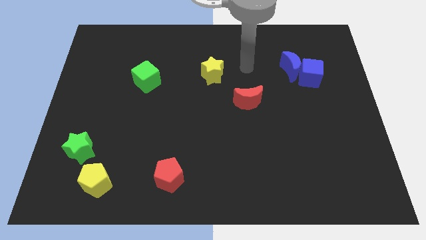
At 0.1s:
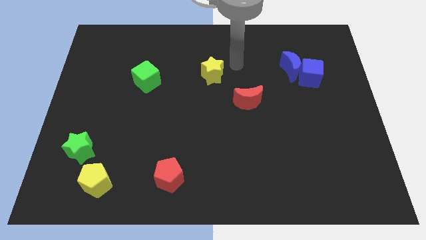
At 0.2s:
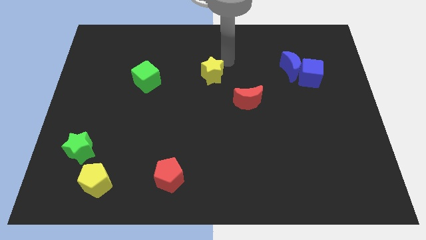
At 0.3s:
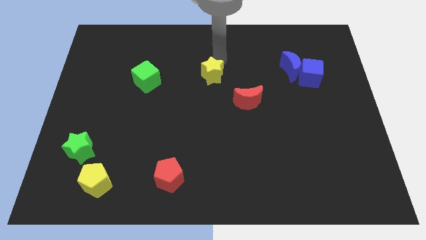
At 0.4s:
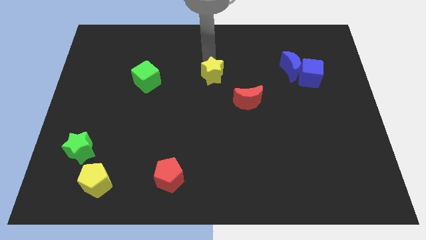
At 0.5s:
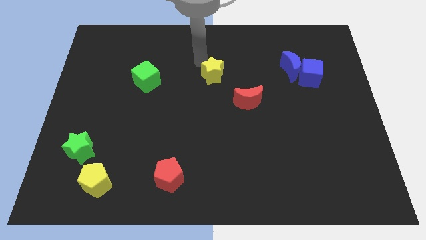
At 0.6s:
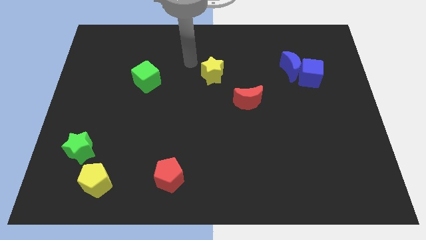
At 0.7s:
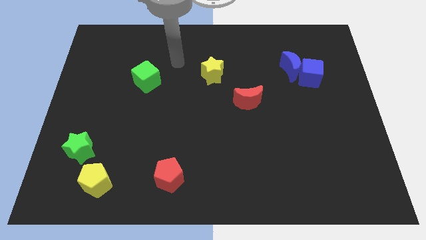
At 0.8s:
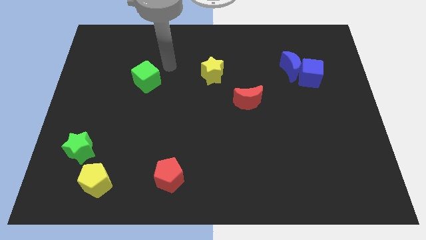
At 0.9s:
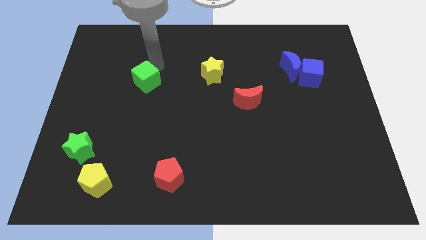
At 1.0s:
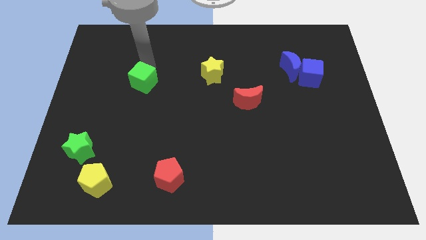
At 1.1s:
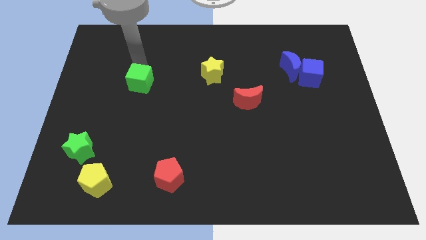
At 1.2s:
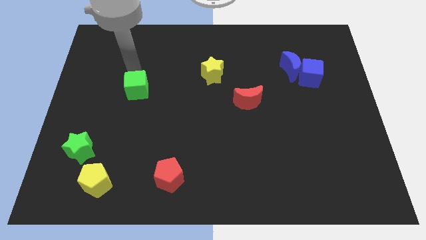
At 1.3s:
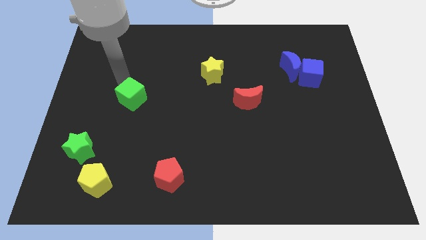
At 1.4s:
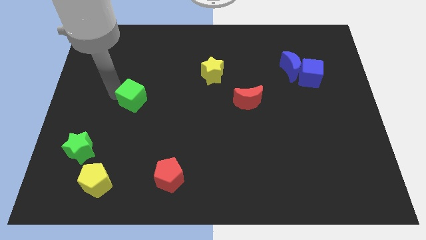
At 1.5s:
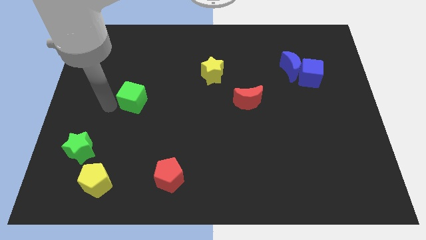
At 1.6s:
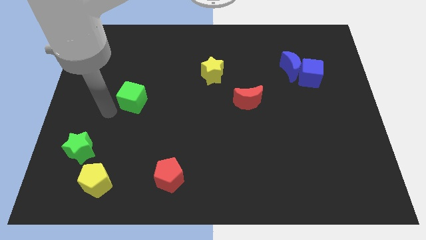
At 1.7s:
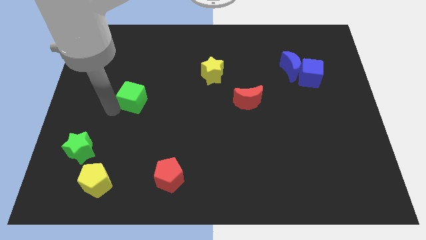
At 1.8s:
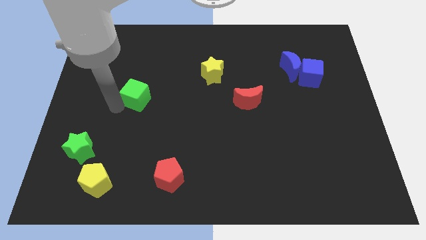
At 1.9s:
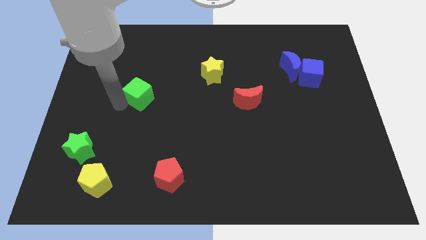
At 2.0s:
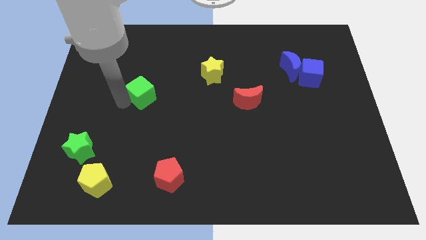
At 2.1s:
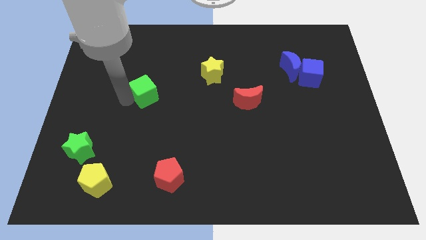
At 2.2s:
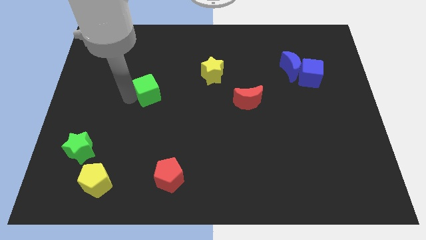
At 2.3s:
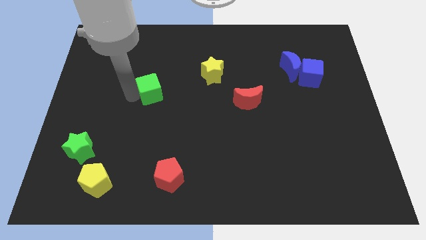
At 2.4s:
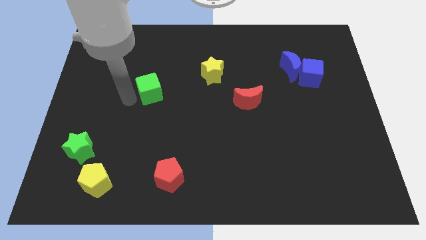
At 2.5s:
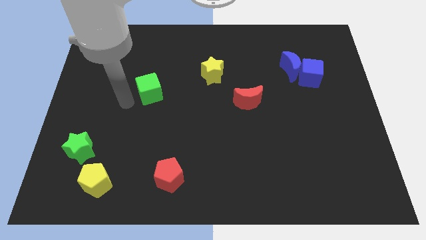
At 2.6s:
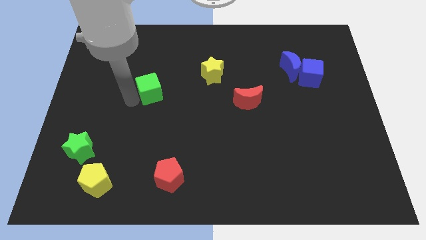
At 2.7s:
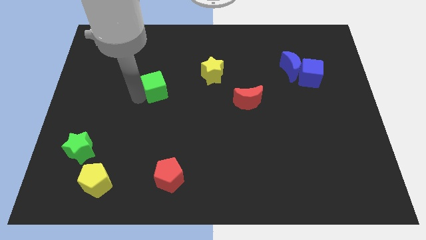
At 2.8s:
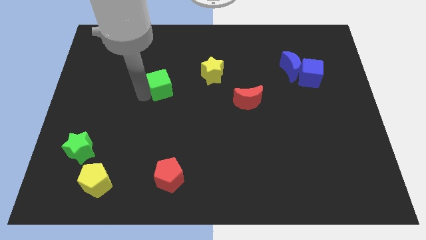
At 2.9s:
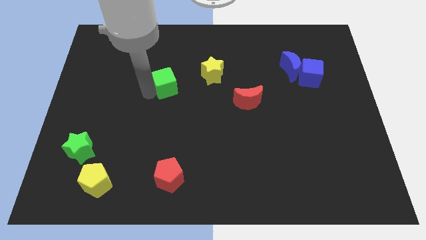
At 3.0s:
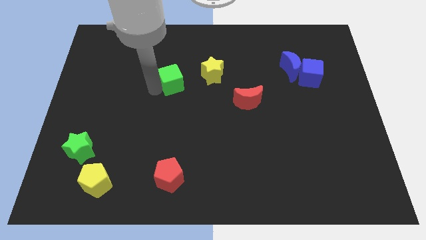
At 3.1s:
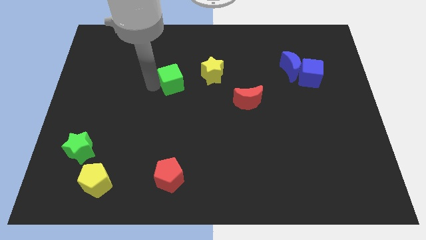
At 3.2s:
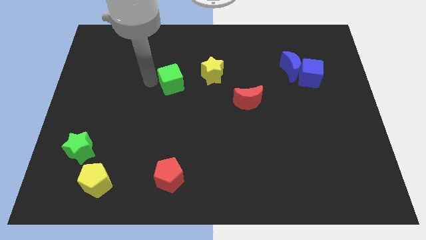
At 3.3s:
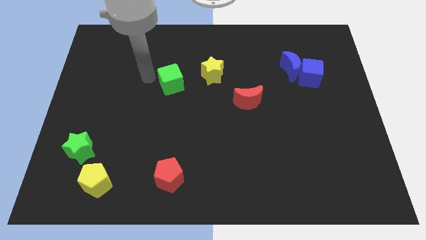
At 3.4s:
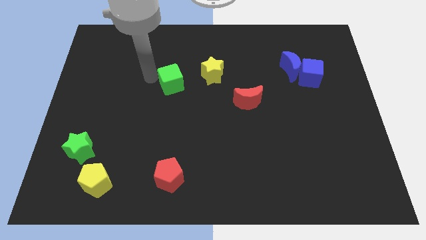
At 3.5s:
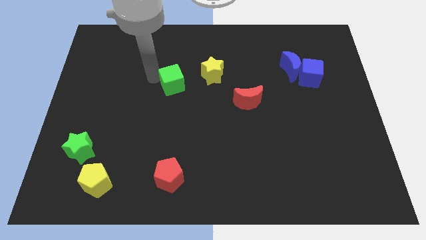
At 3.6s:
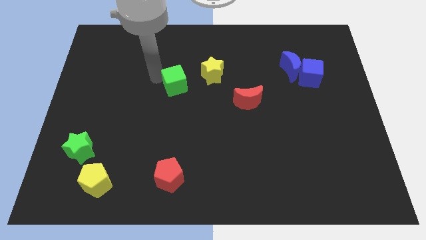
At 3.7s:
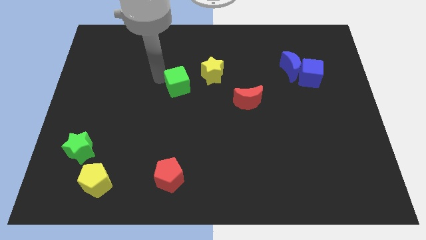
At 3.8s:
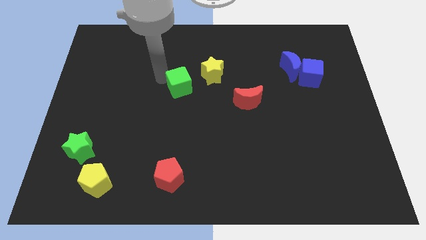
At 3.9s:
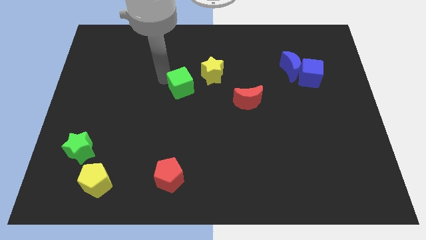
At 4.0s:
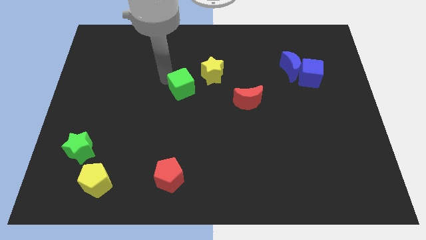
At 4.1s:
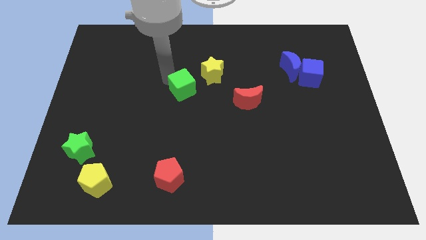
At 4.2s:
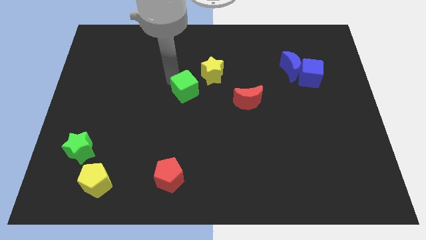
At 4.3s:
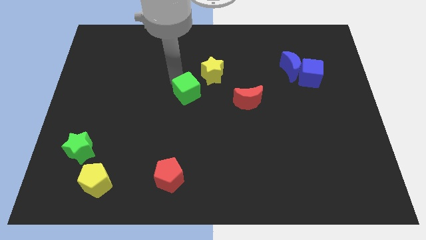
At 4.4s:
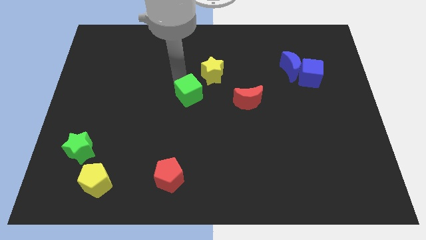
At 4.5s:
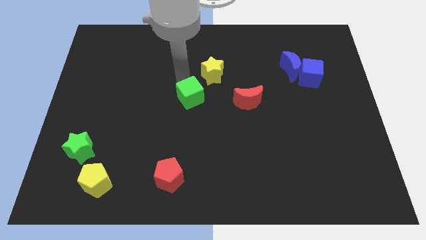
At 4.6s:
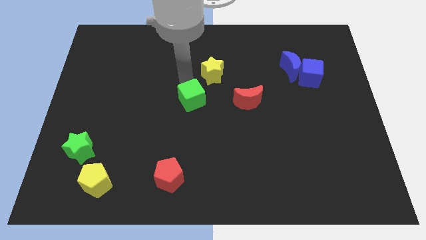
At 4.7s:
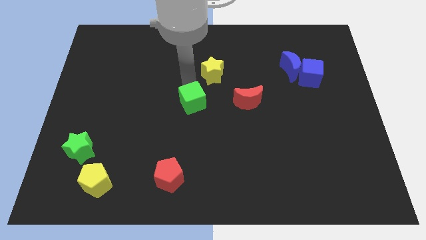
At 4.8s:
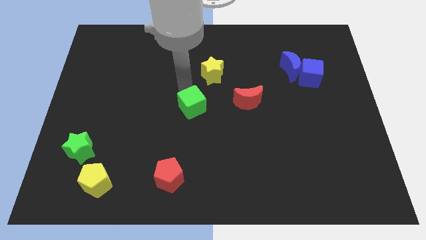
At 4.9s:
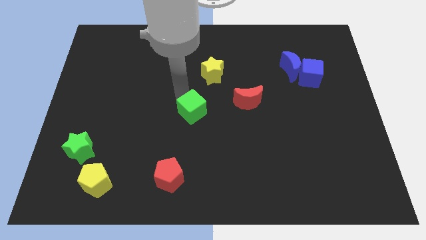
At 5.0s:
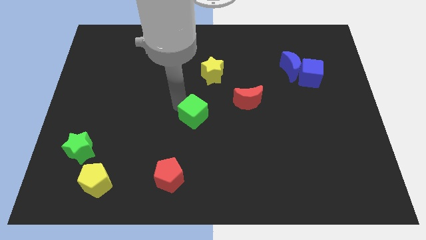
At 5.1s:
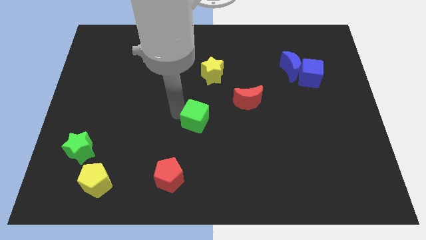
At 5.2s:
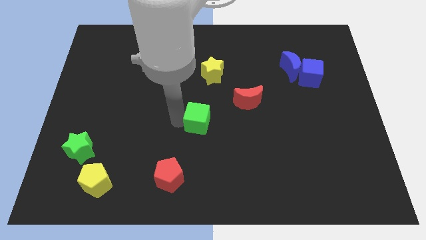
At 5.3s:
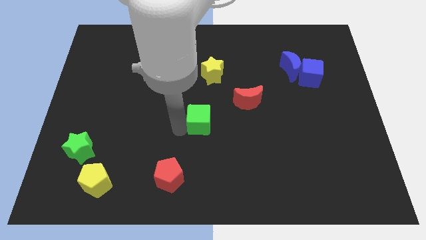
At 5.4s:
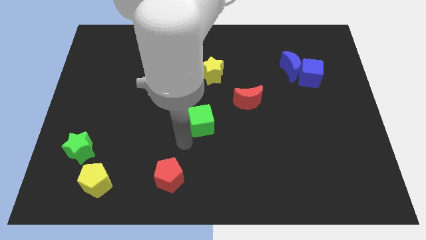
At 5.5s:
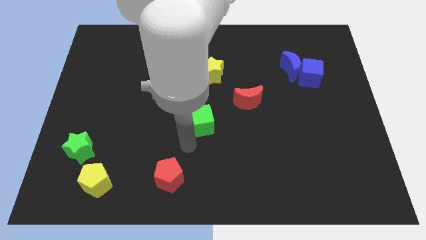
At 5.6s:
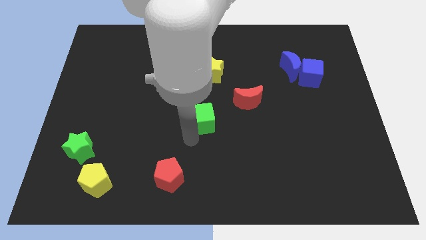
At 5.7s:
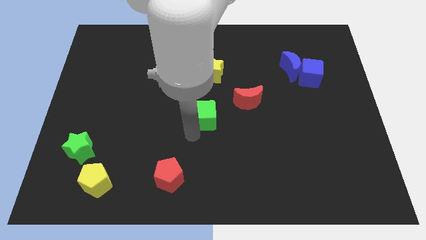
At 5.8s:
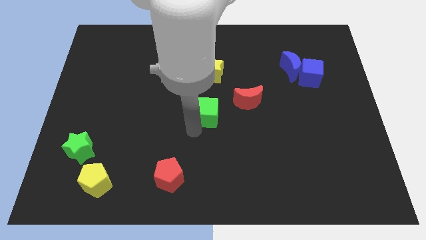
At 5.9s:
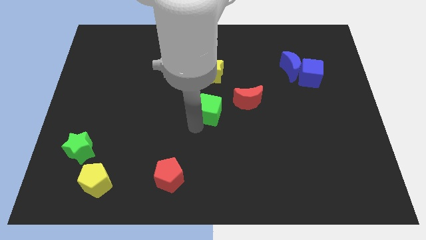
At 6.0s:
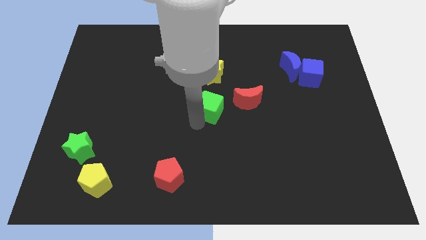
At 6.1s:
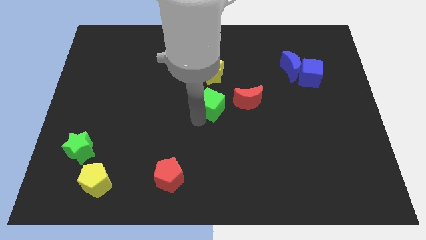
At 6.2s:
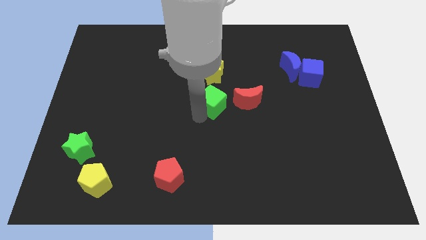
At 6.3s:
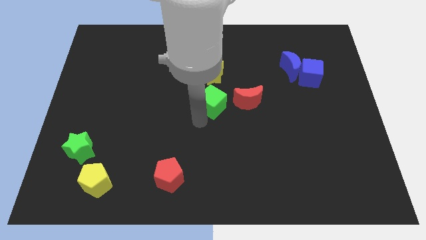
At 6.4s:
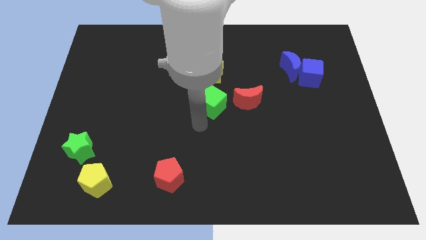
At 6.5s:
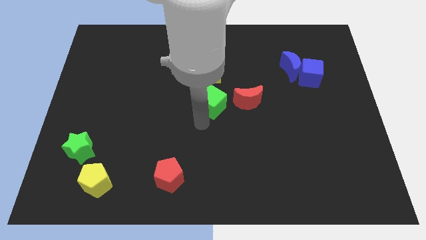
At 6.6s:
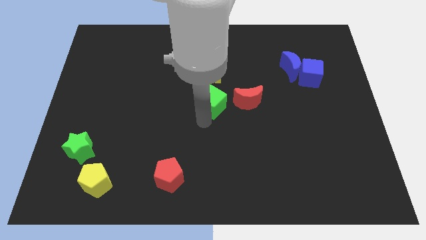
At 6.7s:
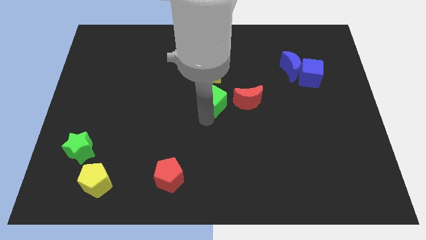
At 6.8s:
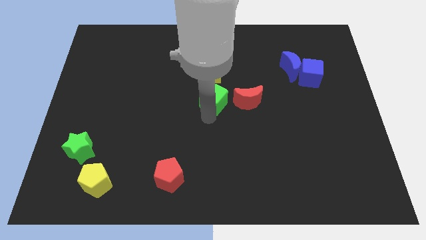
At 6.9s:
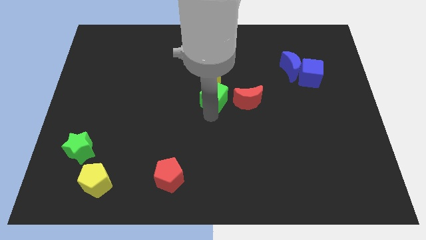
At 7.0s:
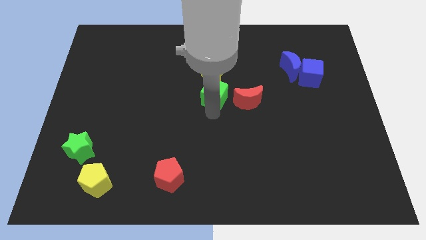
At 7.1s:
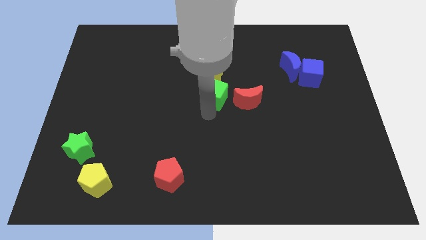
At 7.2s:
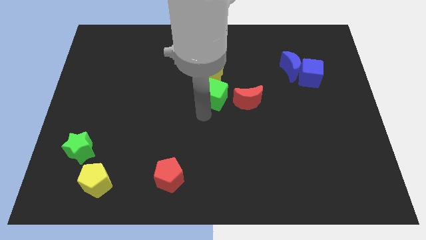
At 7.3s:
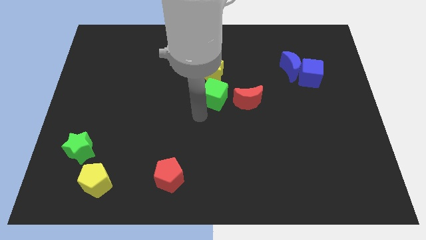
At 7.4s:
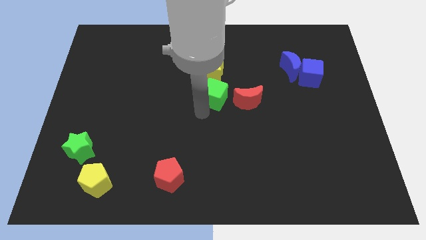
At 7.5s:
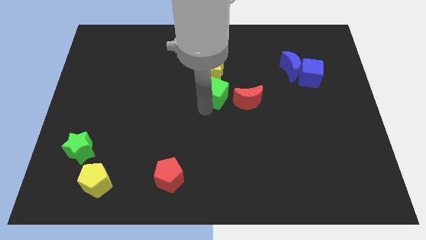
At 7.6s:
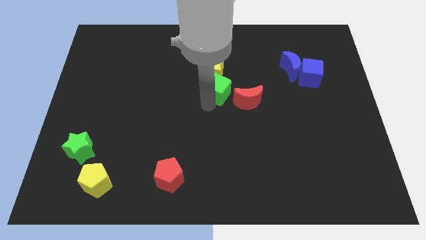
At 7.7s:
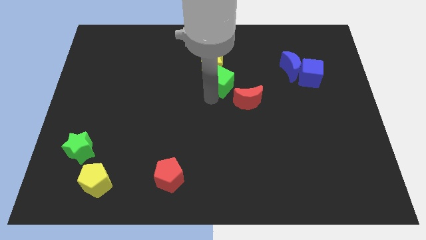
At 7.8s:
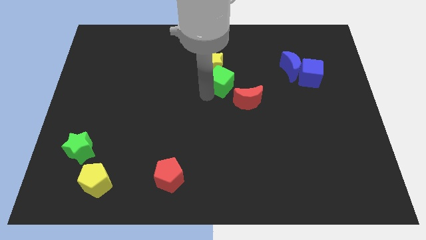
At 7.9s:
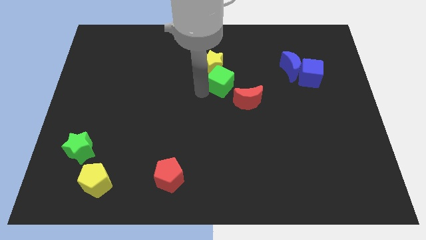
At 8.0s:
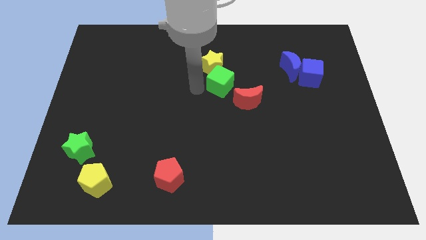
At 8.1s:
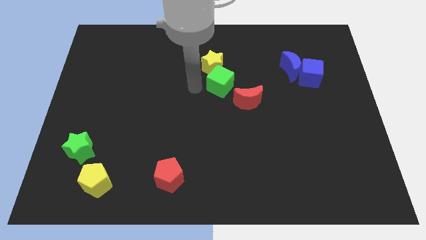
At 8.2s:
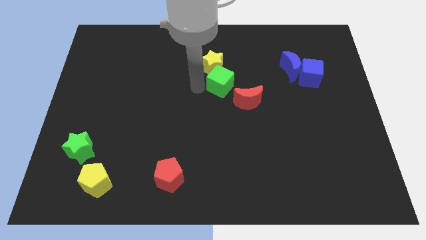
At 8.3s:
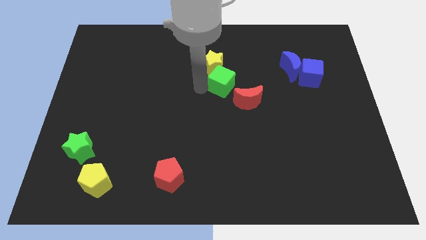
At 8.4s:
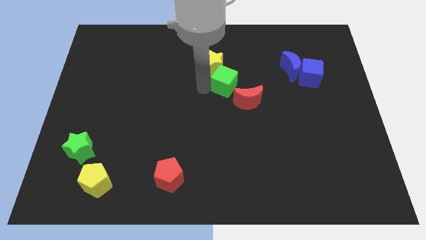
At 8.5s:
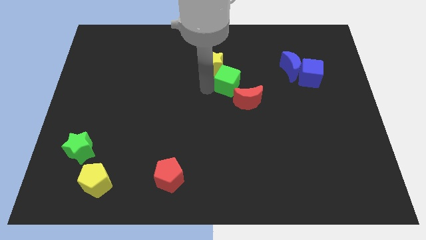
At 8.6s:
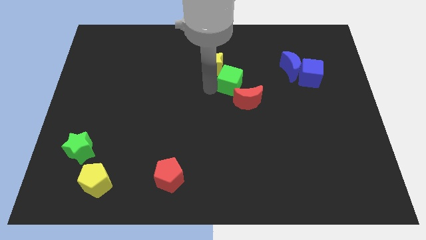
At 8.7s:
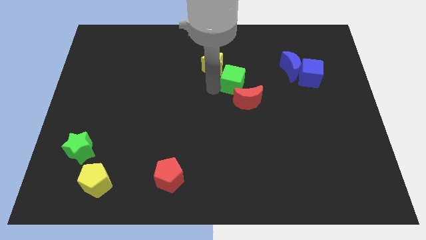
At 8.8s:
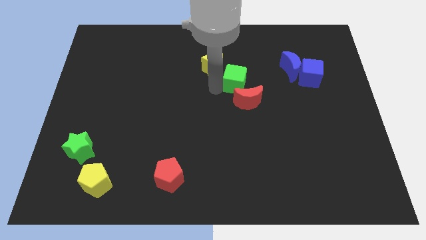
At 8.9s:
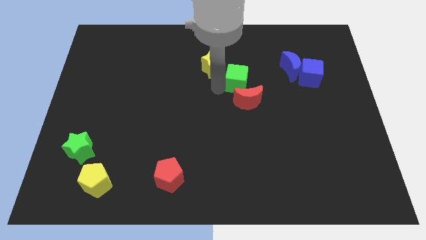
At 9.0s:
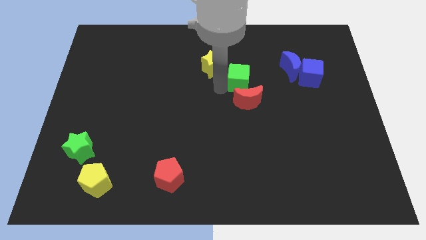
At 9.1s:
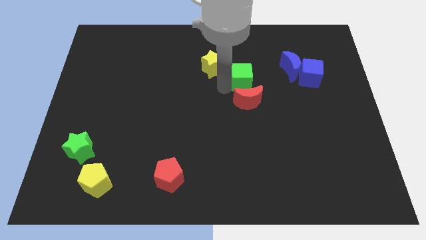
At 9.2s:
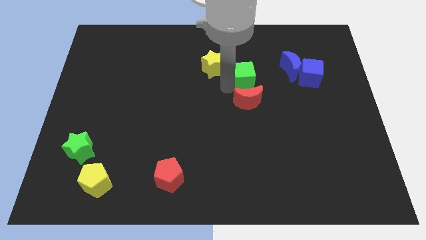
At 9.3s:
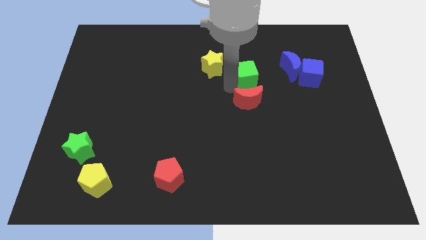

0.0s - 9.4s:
put the green cube to the left side of the blue cube
